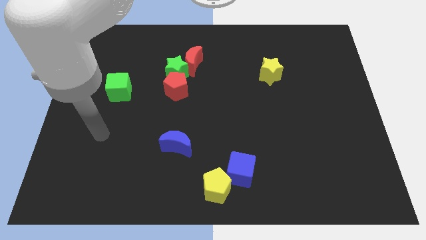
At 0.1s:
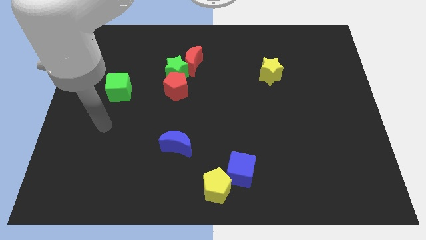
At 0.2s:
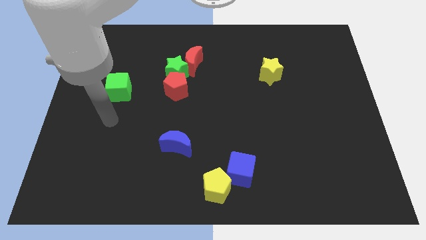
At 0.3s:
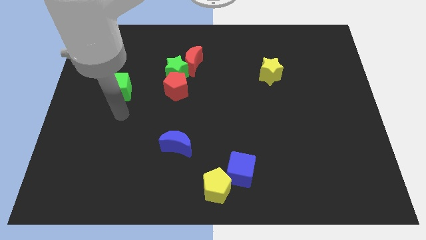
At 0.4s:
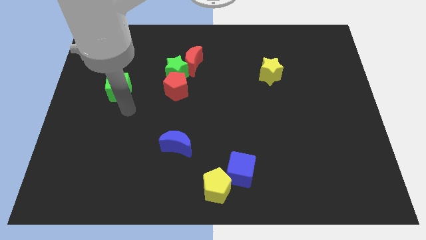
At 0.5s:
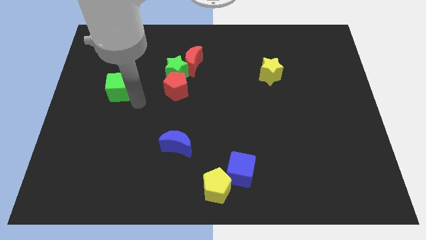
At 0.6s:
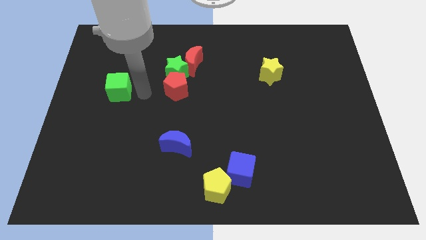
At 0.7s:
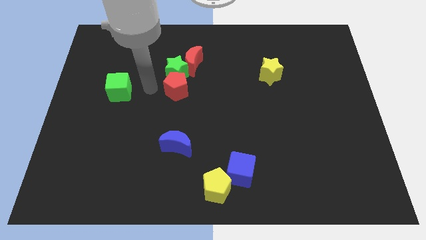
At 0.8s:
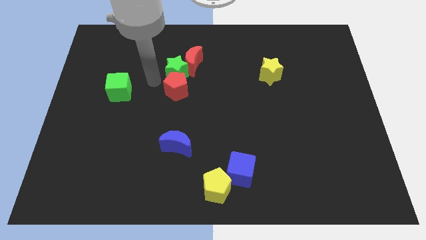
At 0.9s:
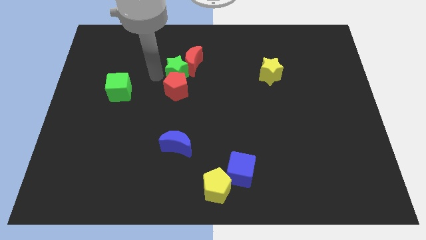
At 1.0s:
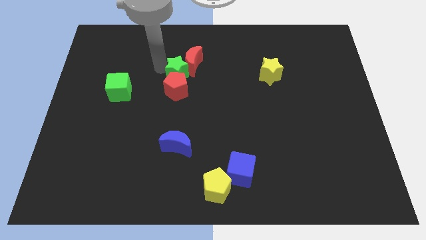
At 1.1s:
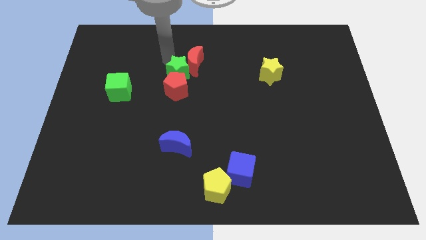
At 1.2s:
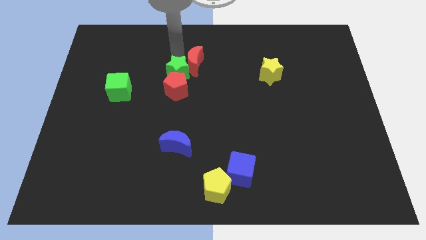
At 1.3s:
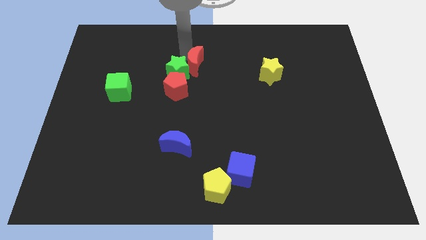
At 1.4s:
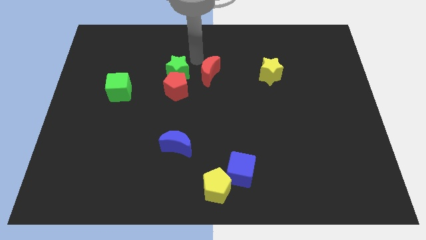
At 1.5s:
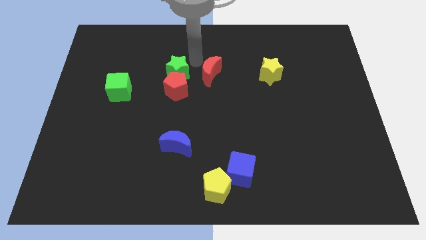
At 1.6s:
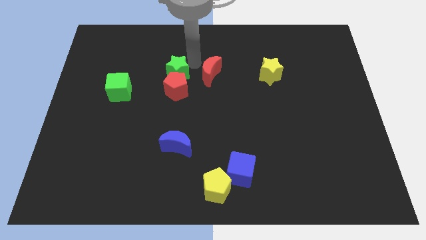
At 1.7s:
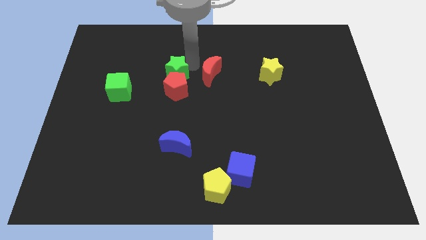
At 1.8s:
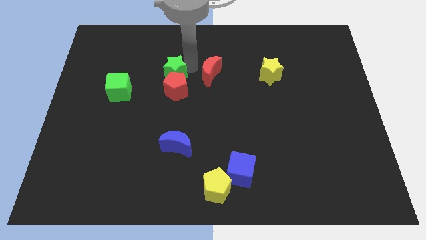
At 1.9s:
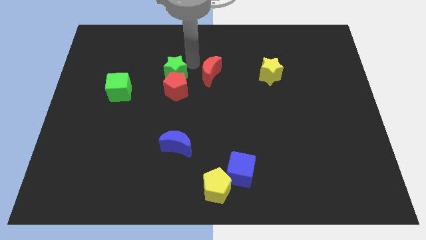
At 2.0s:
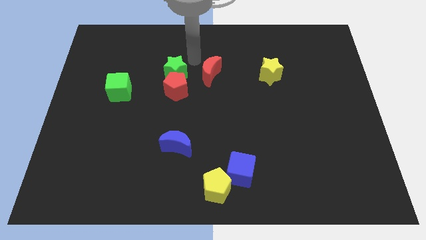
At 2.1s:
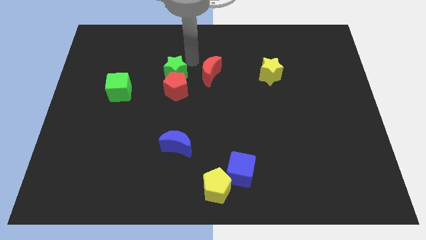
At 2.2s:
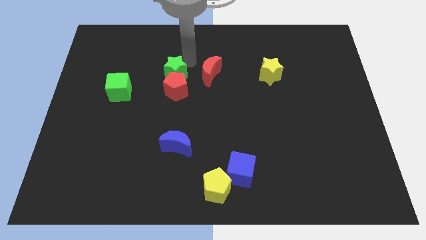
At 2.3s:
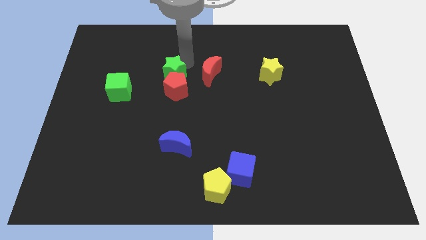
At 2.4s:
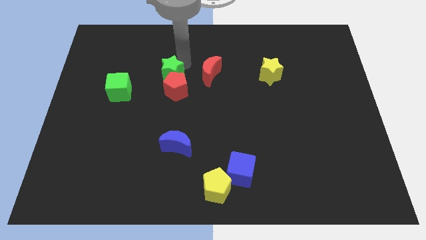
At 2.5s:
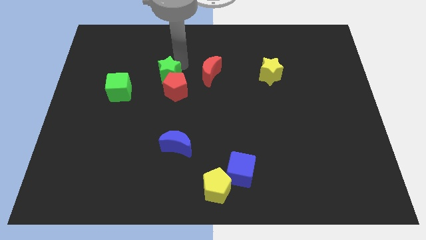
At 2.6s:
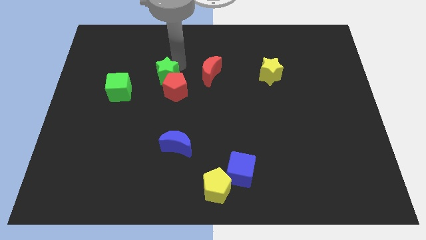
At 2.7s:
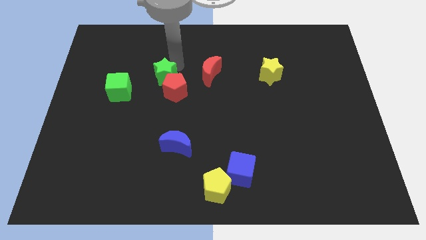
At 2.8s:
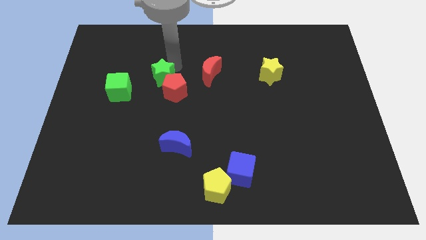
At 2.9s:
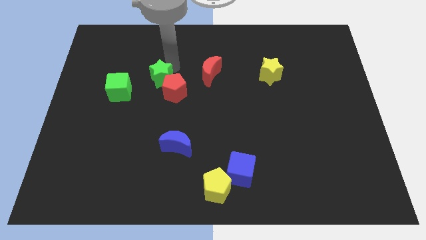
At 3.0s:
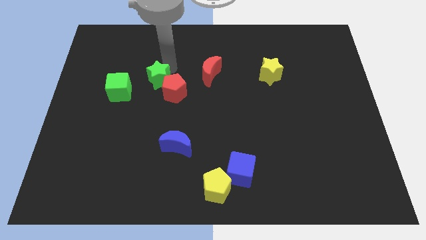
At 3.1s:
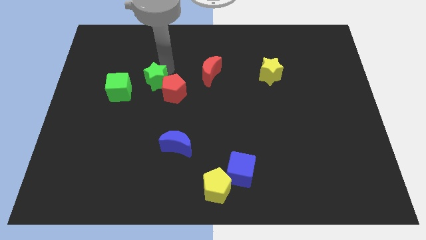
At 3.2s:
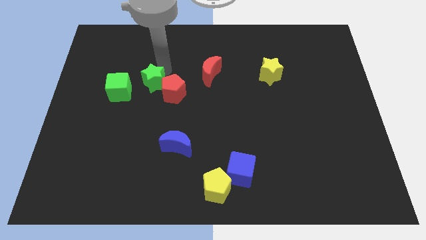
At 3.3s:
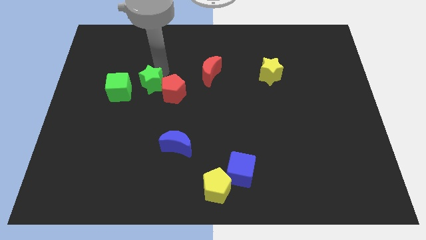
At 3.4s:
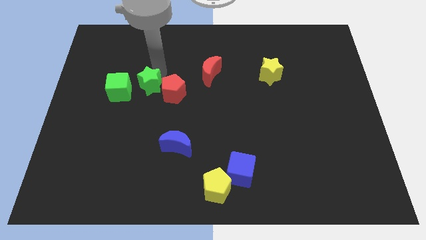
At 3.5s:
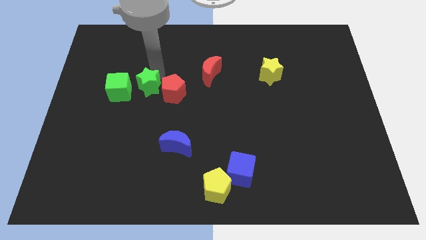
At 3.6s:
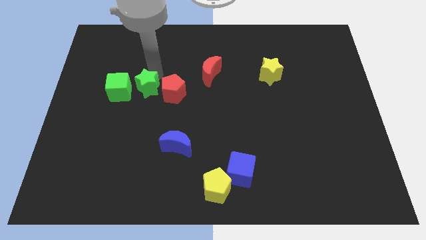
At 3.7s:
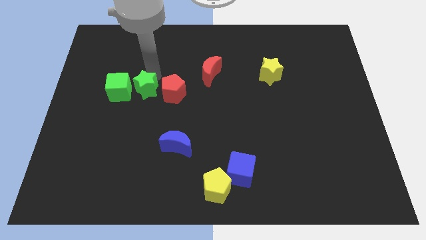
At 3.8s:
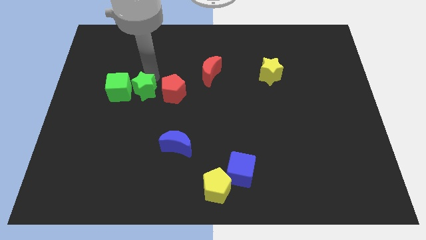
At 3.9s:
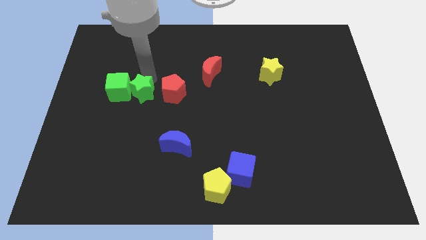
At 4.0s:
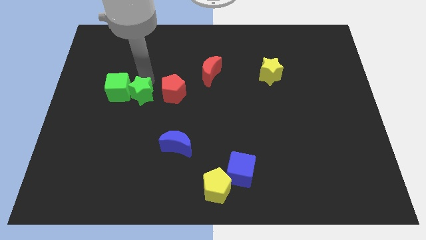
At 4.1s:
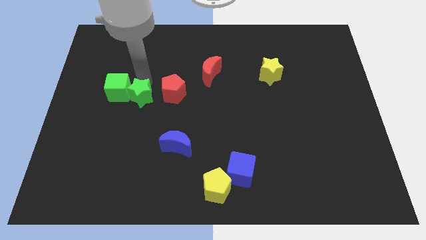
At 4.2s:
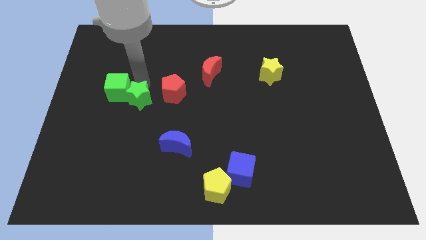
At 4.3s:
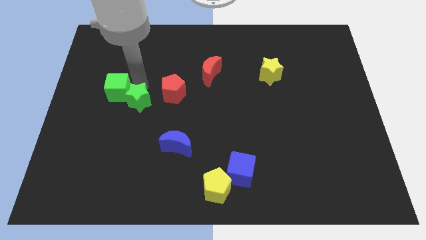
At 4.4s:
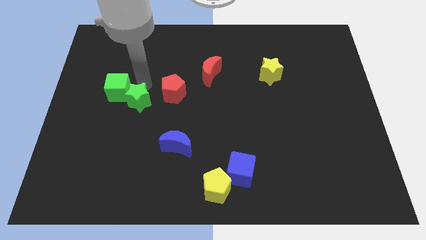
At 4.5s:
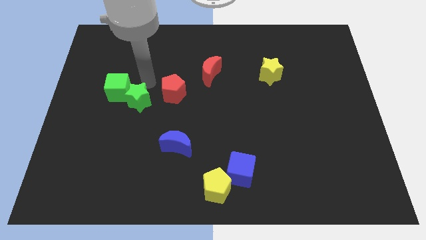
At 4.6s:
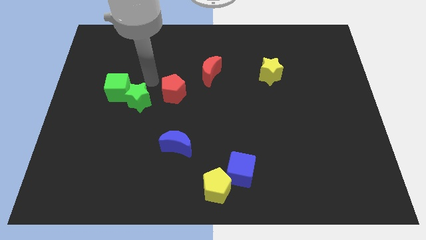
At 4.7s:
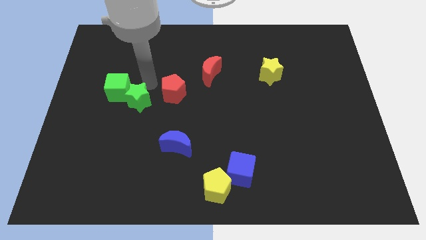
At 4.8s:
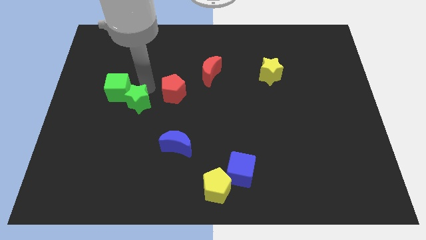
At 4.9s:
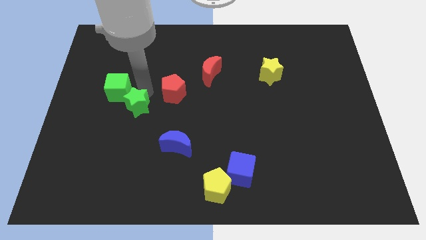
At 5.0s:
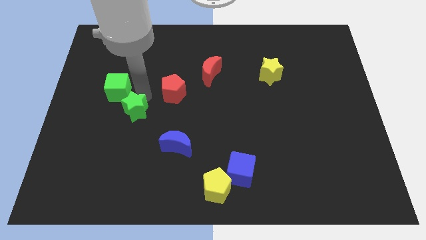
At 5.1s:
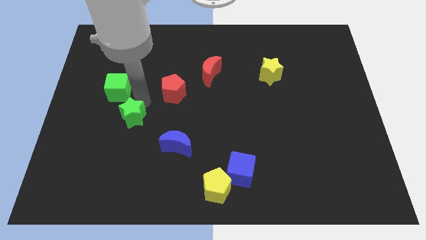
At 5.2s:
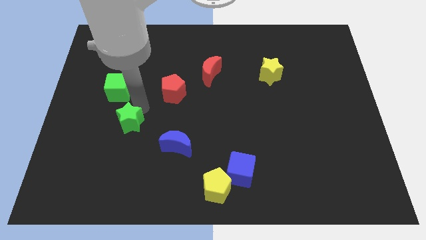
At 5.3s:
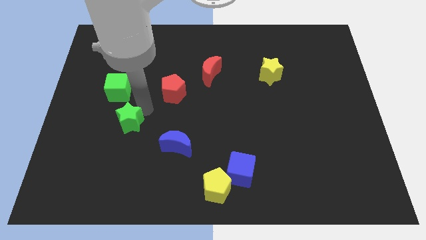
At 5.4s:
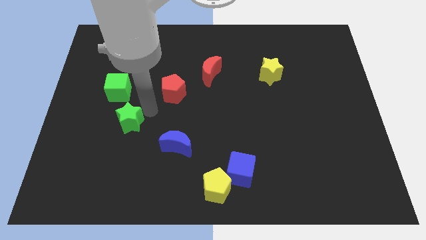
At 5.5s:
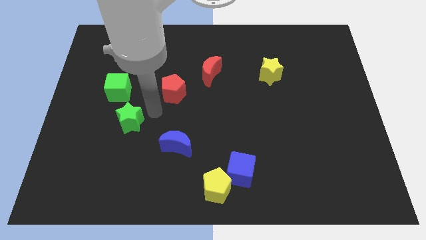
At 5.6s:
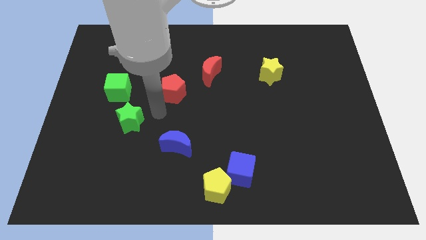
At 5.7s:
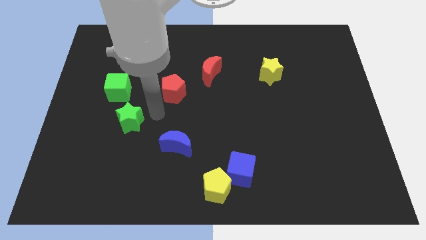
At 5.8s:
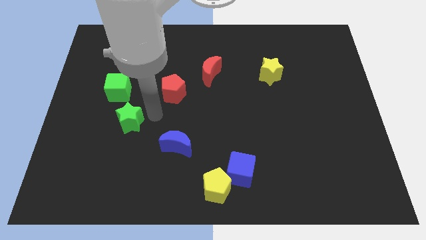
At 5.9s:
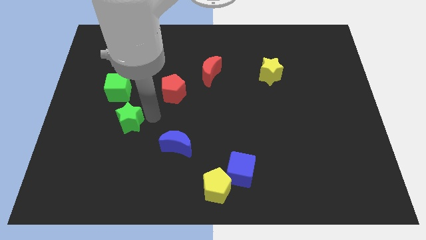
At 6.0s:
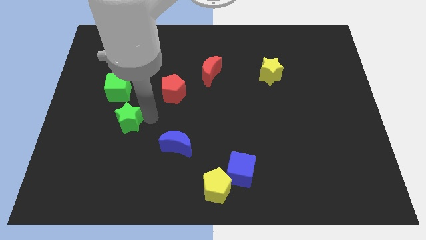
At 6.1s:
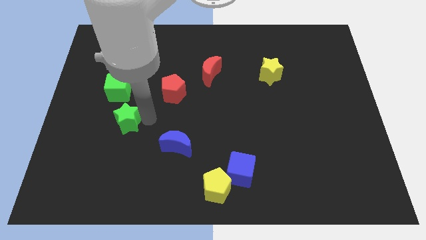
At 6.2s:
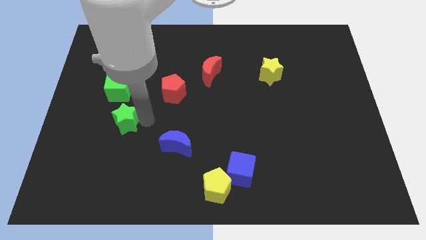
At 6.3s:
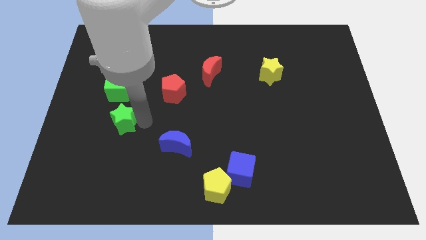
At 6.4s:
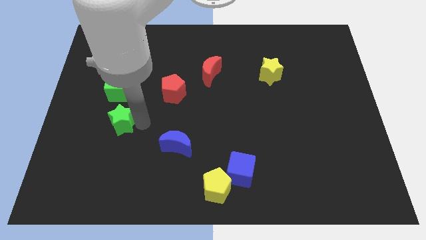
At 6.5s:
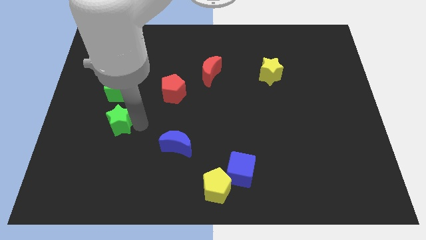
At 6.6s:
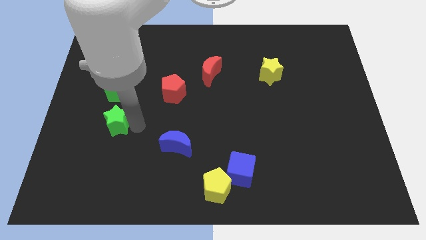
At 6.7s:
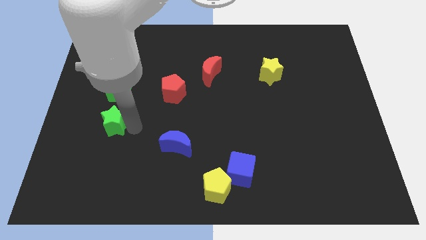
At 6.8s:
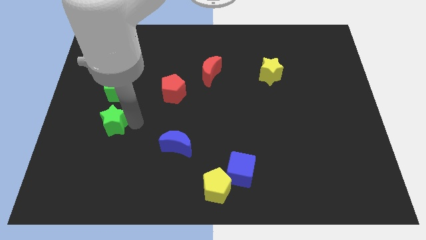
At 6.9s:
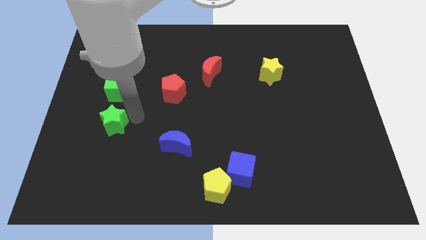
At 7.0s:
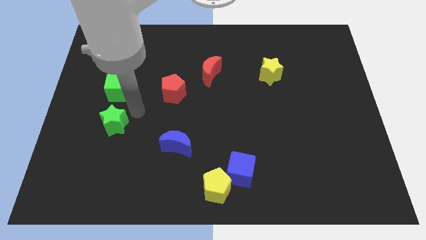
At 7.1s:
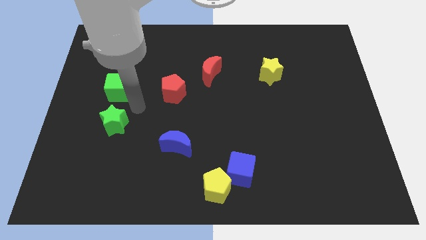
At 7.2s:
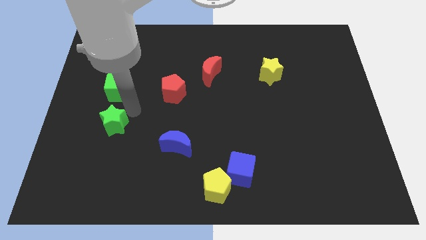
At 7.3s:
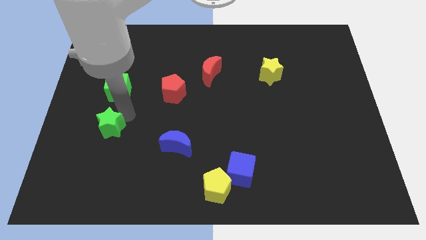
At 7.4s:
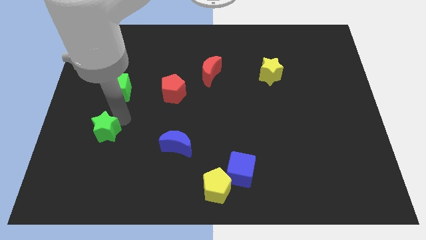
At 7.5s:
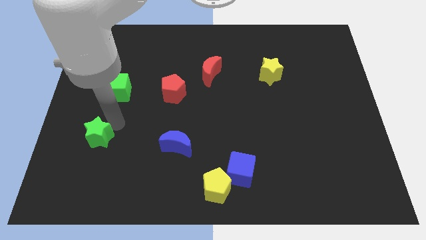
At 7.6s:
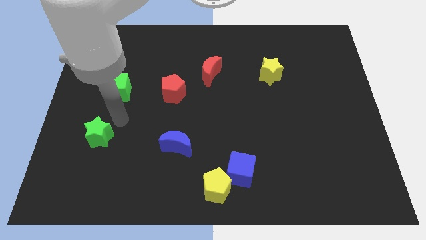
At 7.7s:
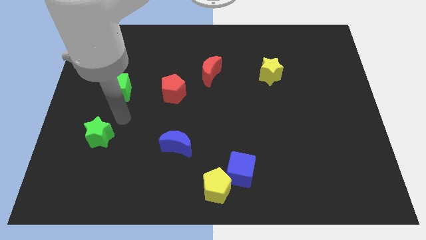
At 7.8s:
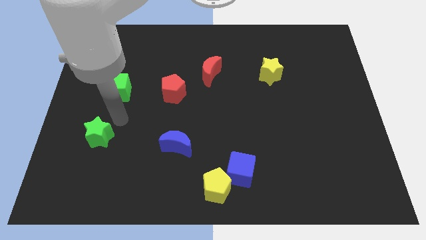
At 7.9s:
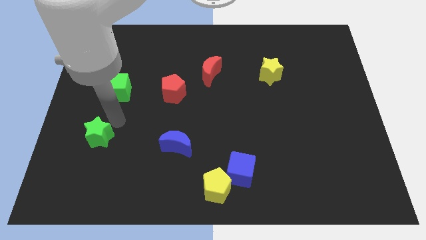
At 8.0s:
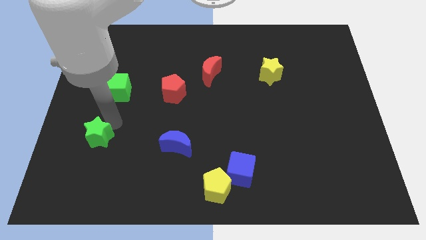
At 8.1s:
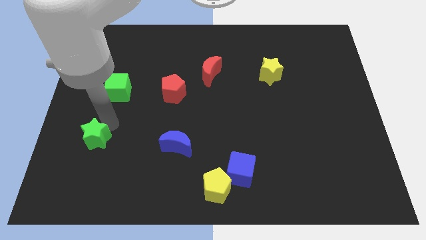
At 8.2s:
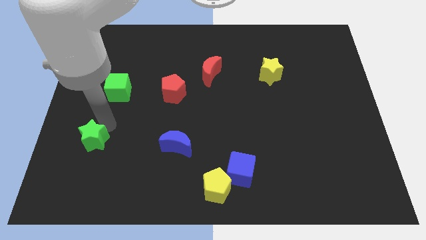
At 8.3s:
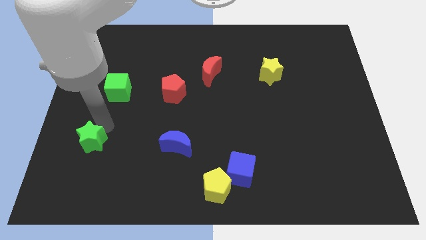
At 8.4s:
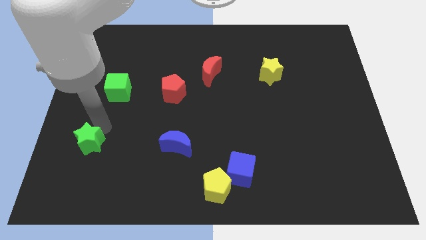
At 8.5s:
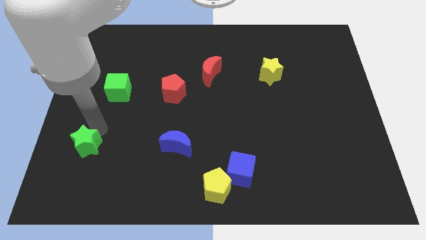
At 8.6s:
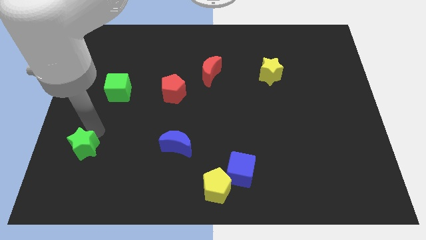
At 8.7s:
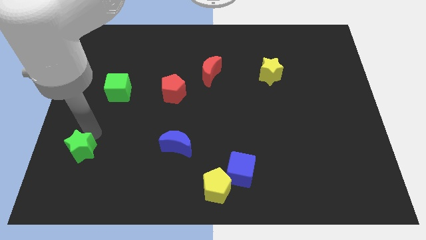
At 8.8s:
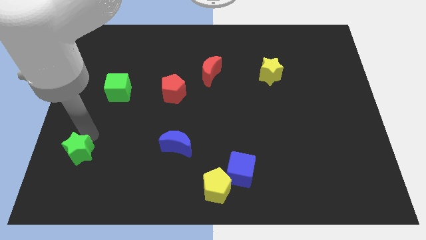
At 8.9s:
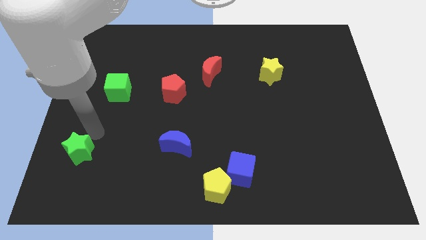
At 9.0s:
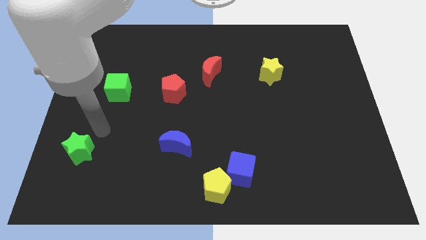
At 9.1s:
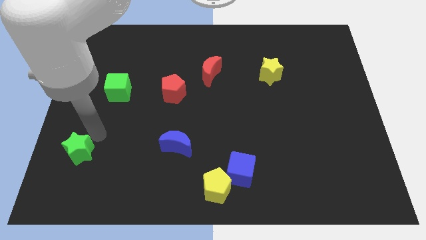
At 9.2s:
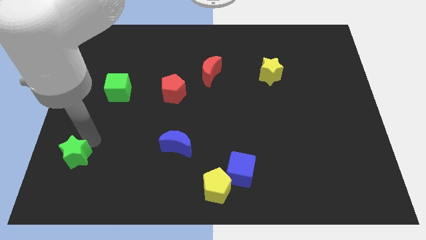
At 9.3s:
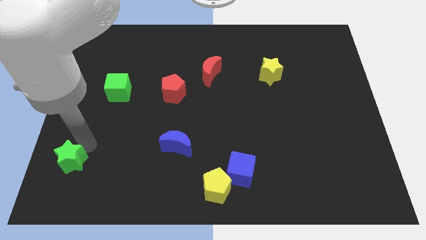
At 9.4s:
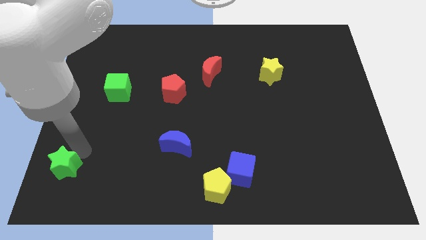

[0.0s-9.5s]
put the green star to the bottom left of the board
